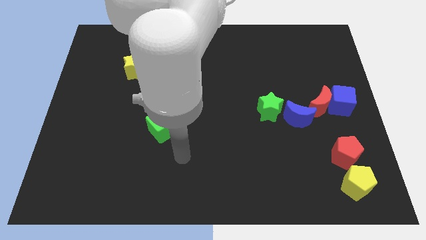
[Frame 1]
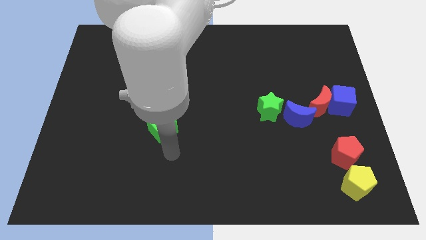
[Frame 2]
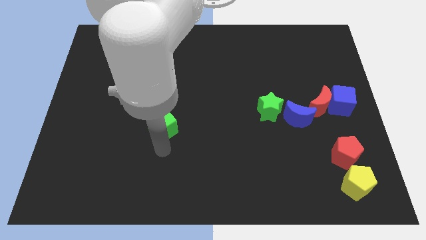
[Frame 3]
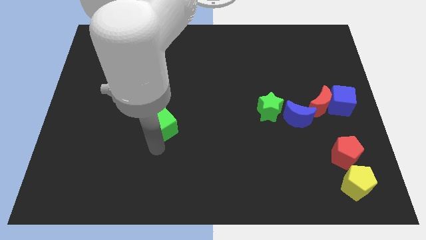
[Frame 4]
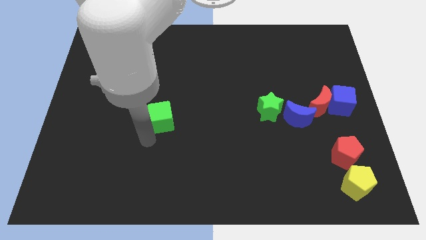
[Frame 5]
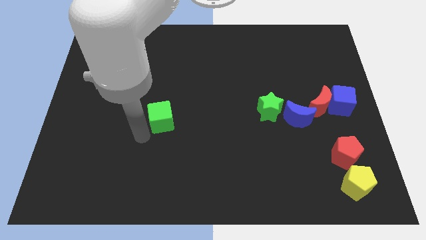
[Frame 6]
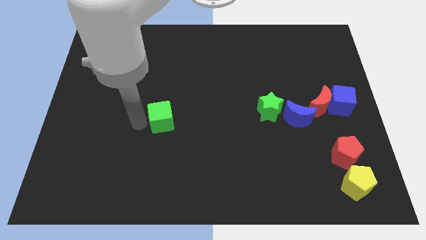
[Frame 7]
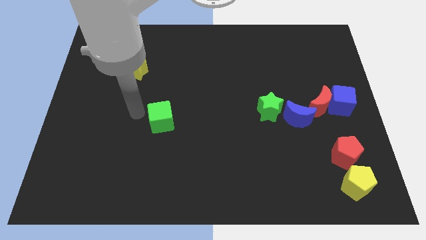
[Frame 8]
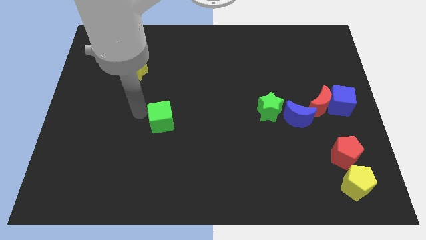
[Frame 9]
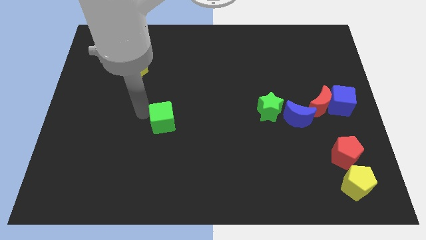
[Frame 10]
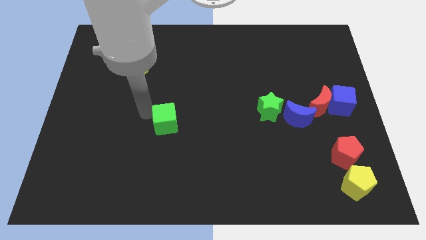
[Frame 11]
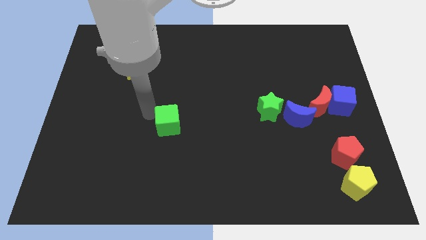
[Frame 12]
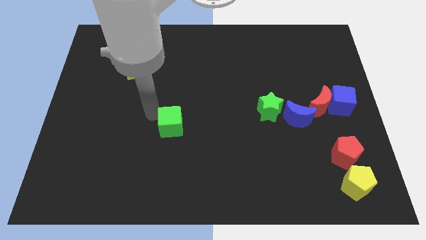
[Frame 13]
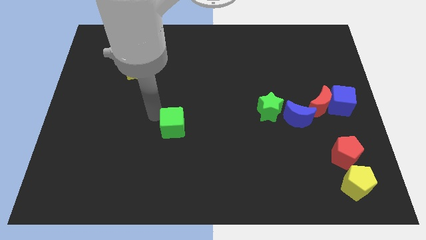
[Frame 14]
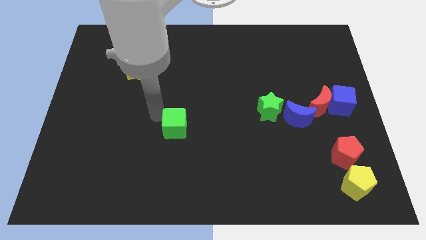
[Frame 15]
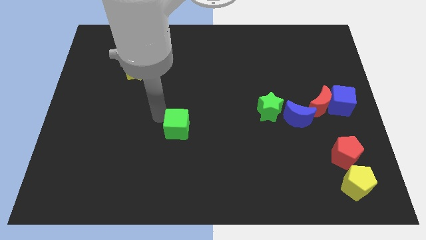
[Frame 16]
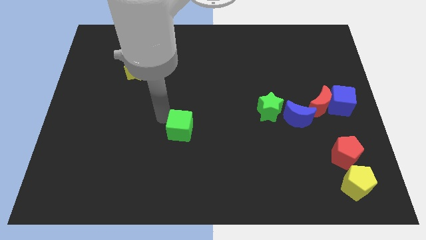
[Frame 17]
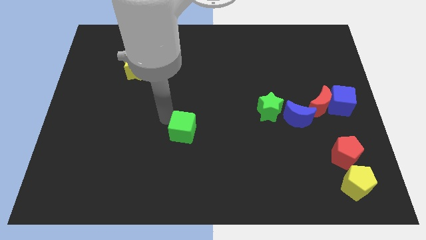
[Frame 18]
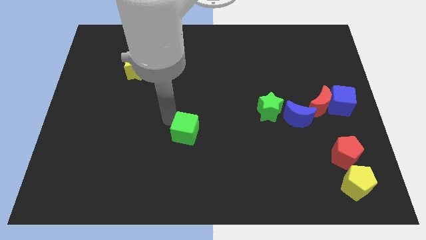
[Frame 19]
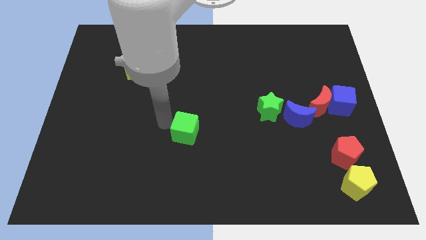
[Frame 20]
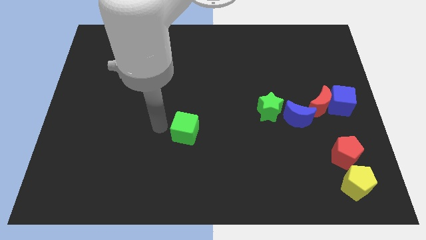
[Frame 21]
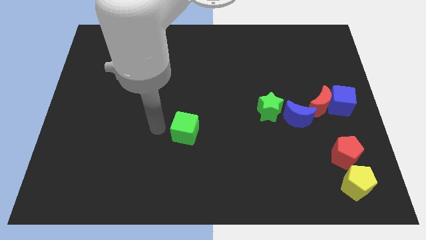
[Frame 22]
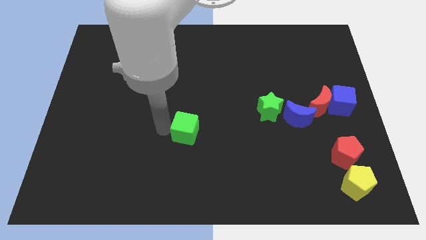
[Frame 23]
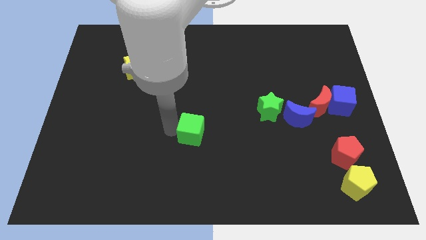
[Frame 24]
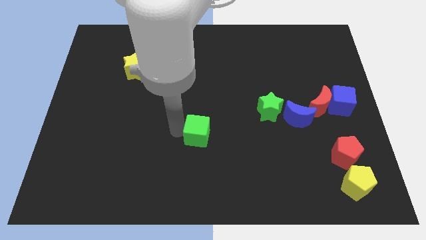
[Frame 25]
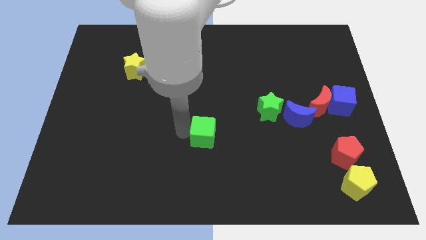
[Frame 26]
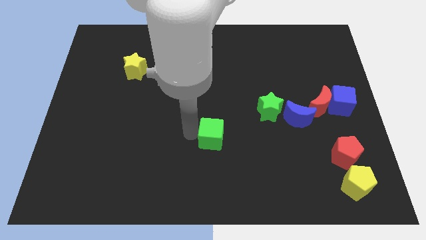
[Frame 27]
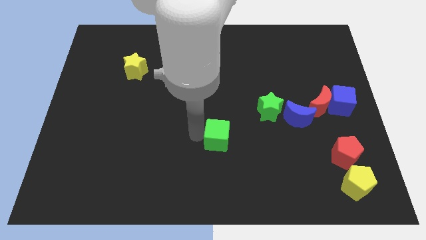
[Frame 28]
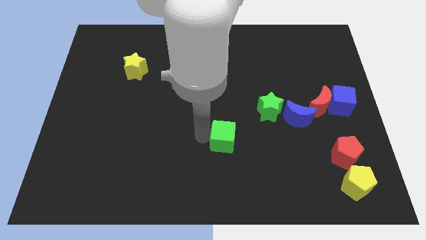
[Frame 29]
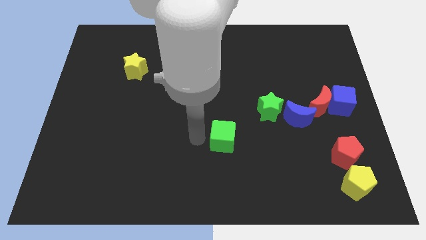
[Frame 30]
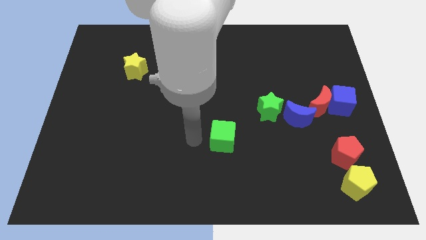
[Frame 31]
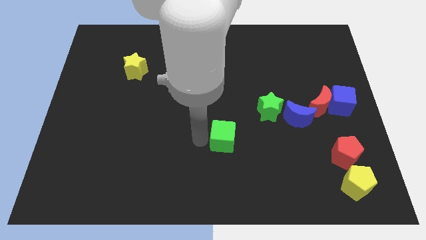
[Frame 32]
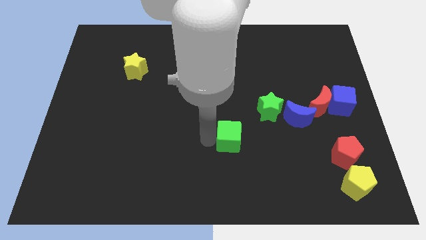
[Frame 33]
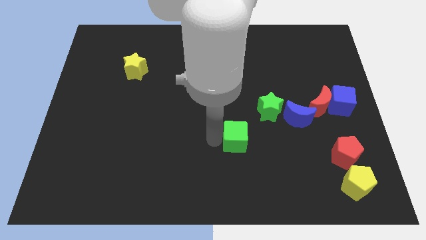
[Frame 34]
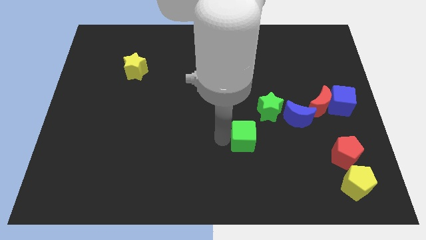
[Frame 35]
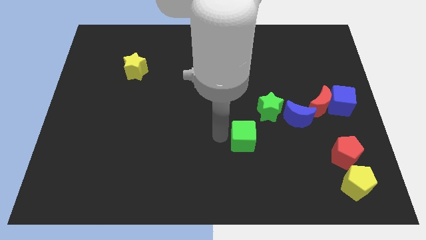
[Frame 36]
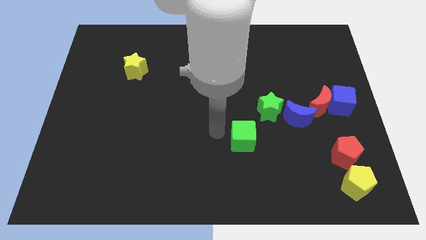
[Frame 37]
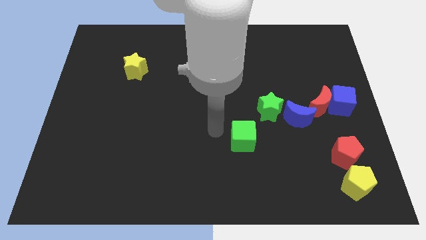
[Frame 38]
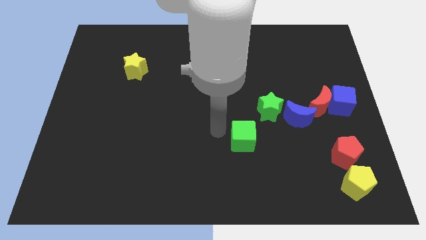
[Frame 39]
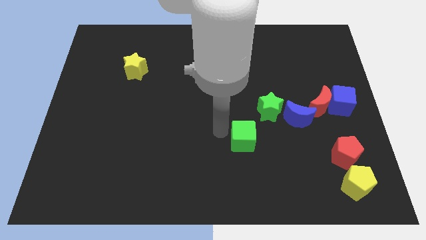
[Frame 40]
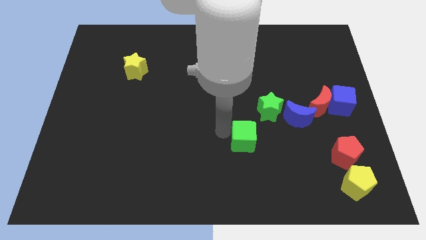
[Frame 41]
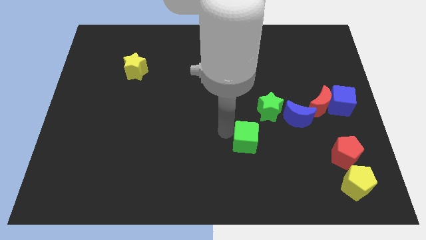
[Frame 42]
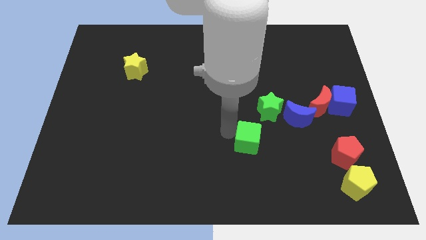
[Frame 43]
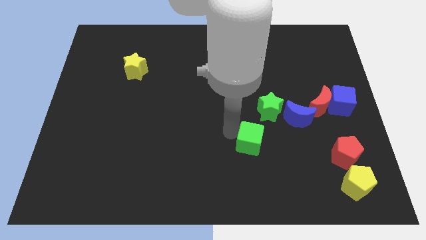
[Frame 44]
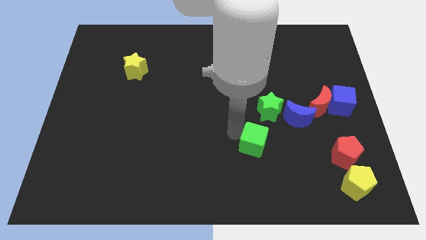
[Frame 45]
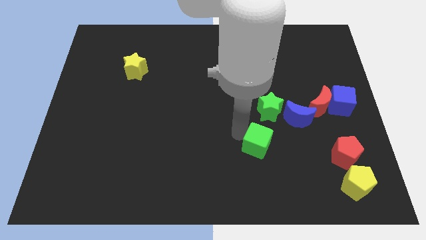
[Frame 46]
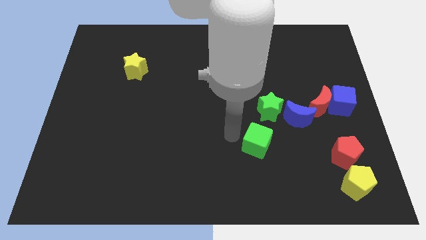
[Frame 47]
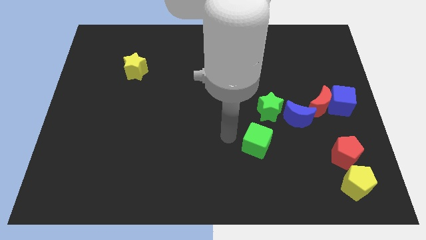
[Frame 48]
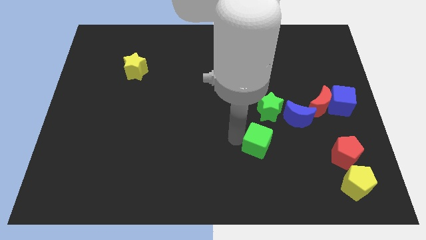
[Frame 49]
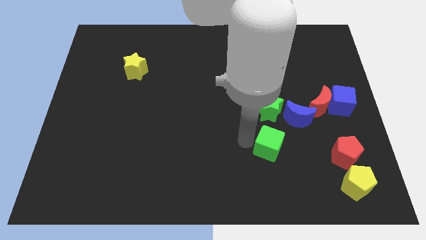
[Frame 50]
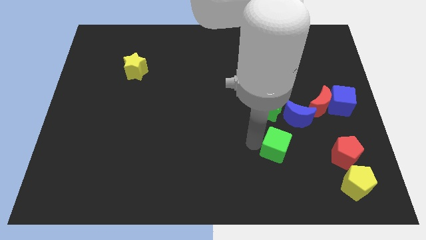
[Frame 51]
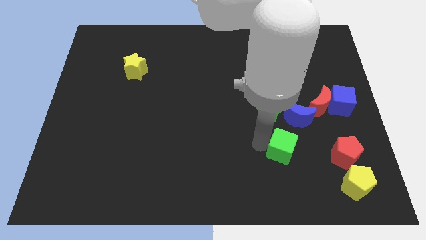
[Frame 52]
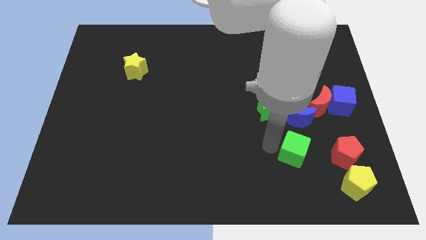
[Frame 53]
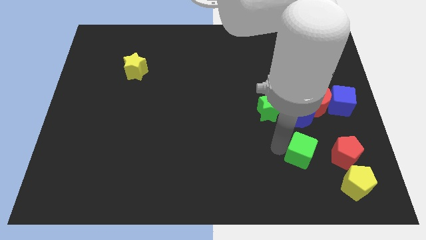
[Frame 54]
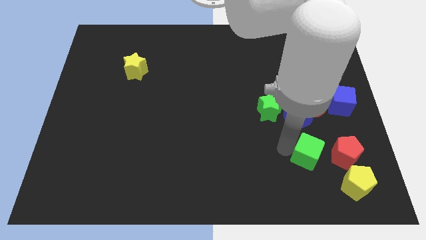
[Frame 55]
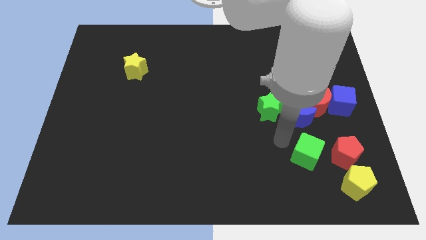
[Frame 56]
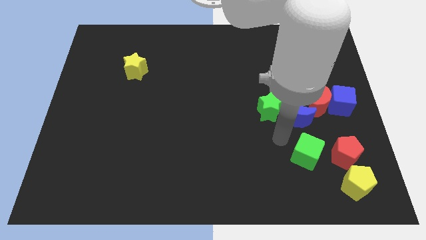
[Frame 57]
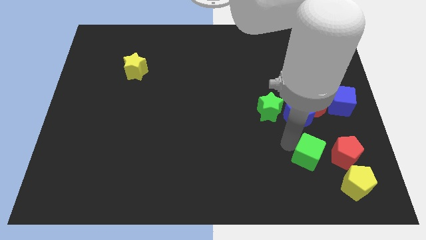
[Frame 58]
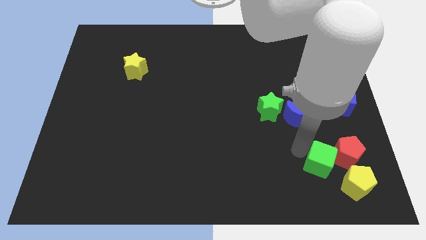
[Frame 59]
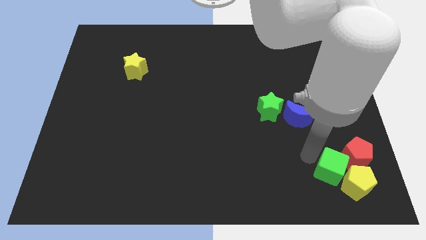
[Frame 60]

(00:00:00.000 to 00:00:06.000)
move the green cube towards the yellow pentagon
